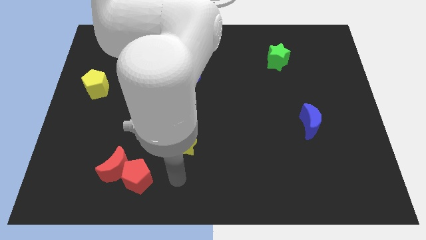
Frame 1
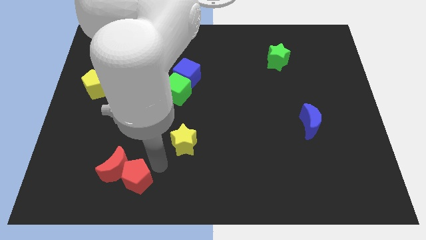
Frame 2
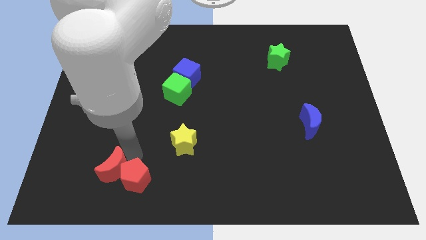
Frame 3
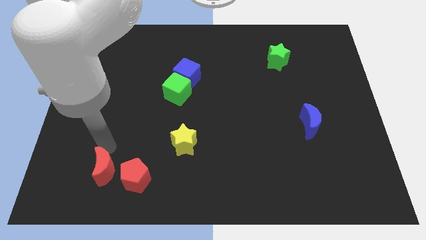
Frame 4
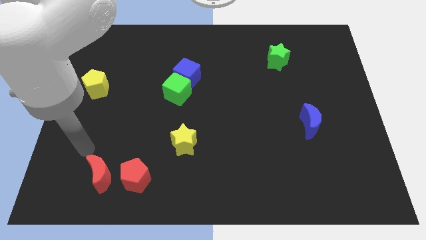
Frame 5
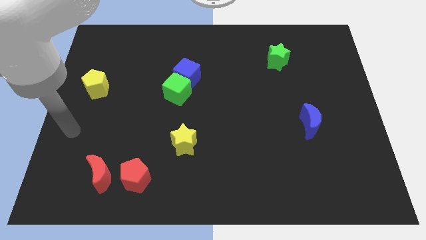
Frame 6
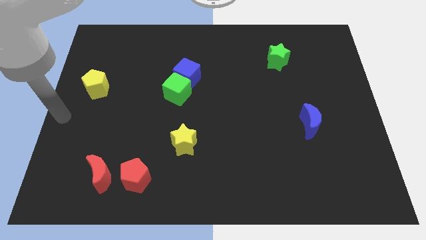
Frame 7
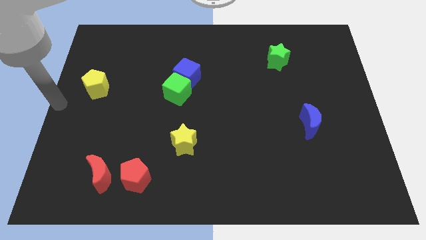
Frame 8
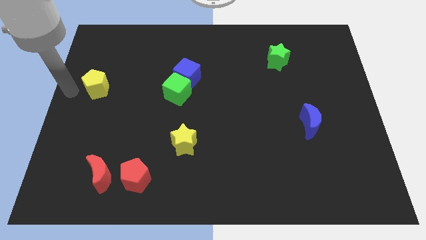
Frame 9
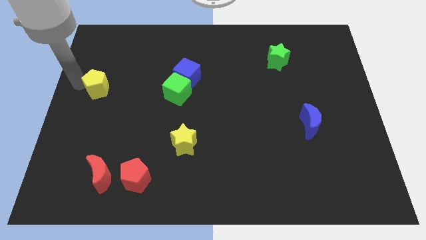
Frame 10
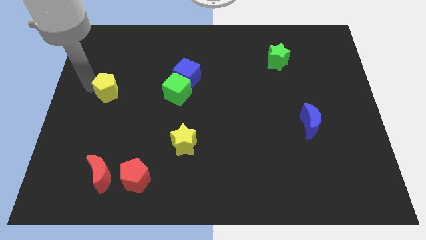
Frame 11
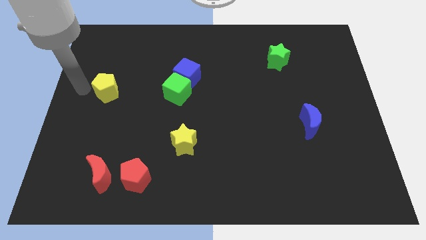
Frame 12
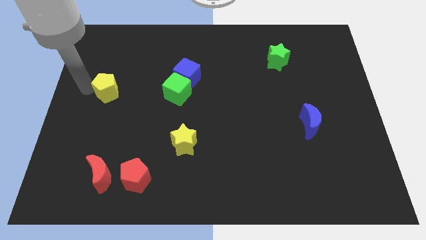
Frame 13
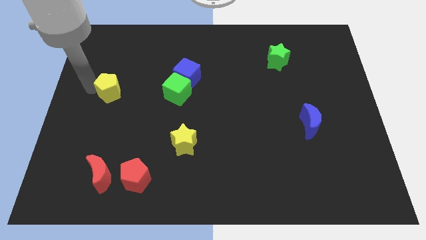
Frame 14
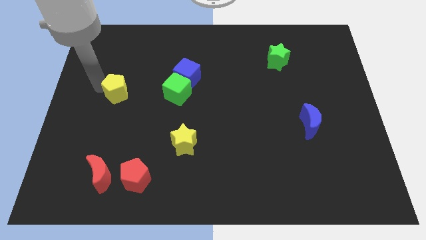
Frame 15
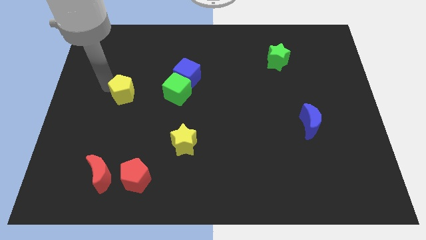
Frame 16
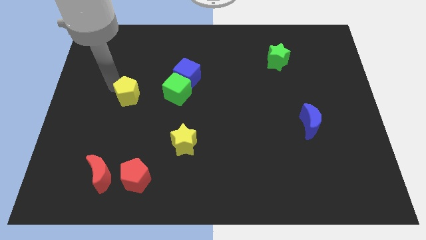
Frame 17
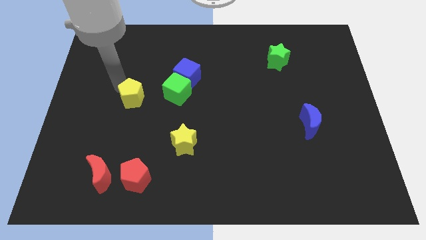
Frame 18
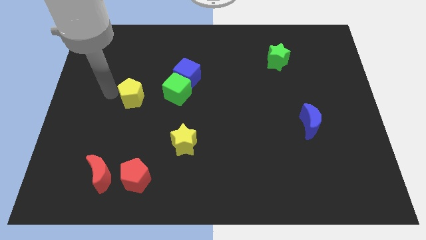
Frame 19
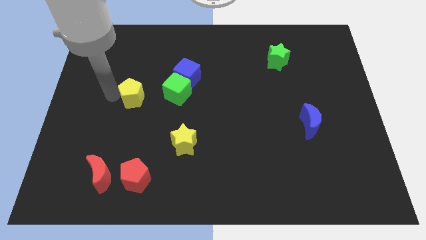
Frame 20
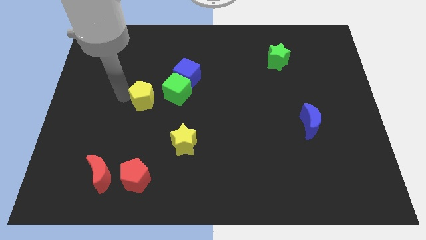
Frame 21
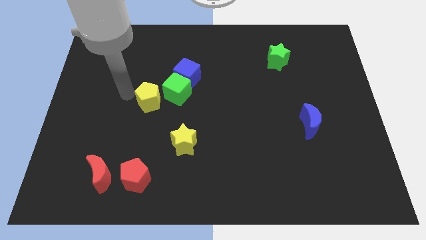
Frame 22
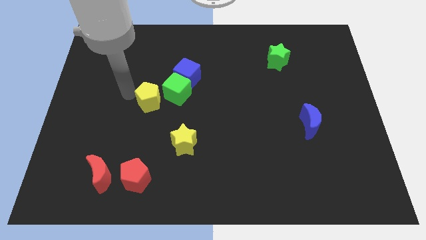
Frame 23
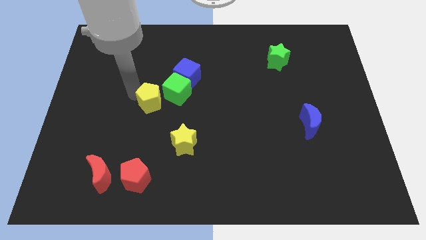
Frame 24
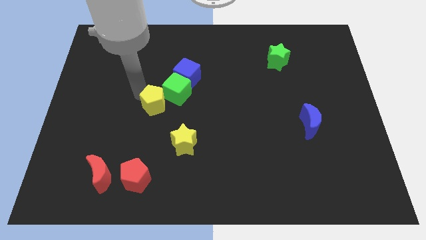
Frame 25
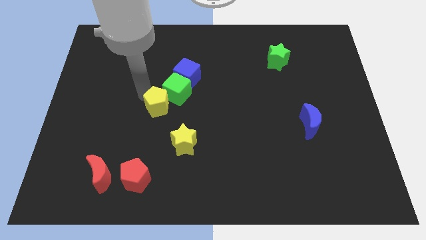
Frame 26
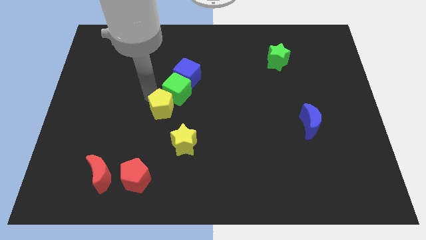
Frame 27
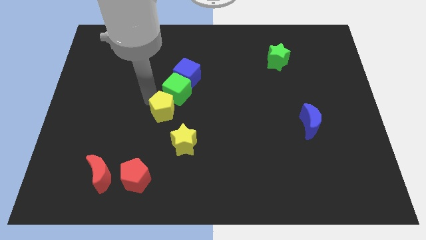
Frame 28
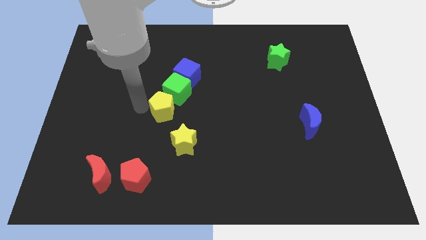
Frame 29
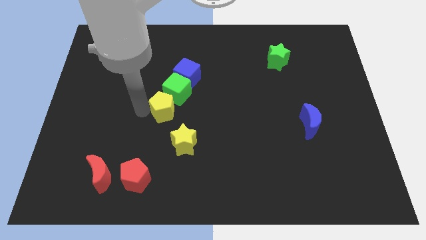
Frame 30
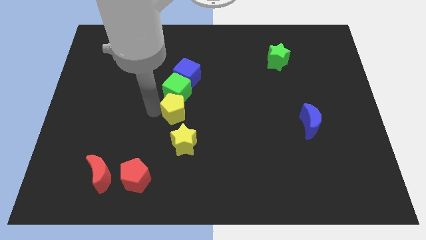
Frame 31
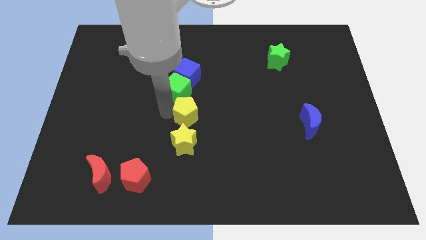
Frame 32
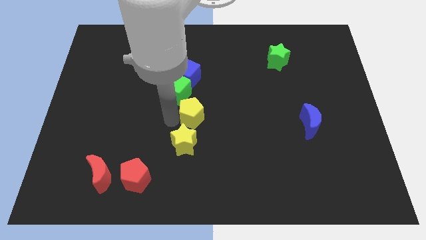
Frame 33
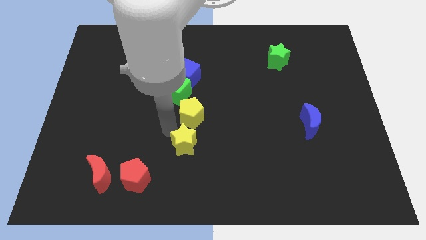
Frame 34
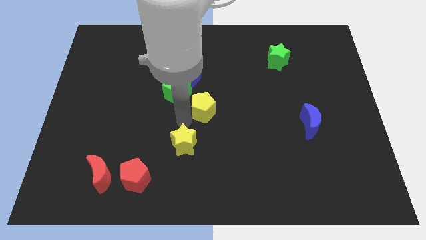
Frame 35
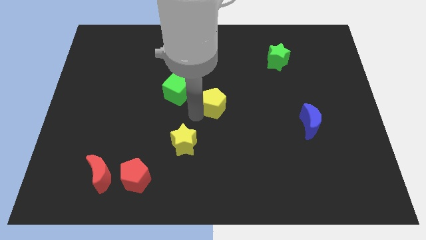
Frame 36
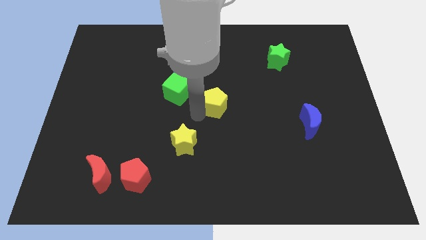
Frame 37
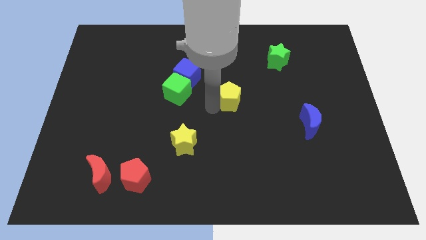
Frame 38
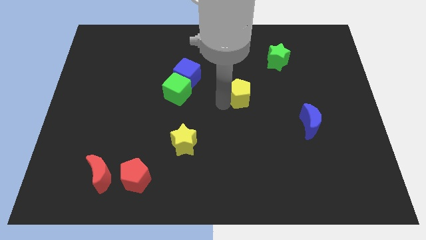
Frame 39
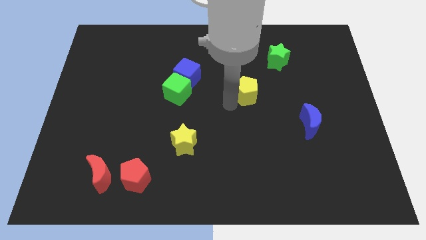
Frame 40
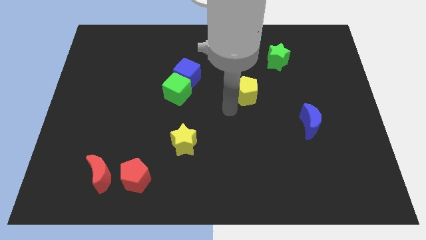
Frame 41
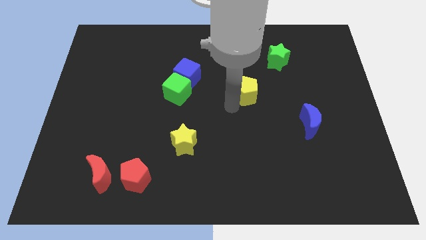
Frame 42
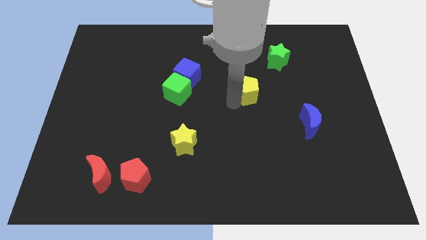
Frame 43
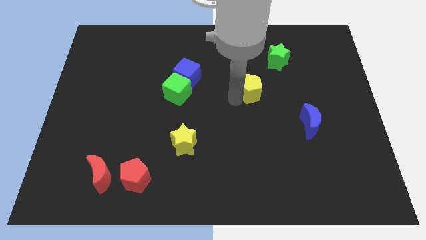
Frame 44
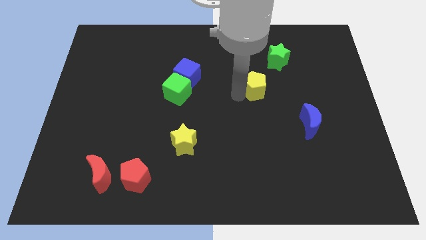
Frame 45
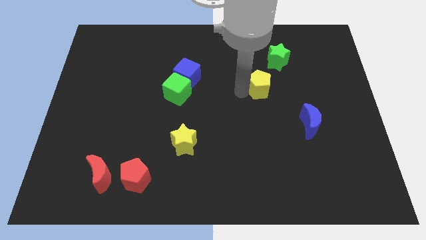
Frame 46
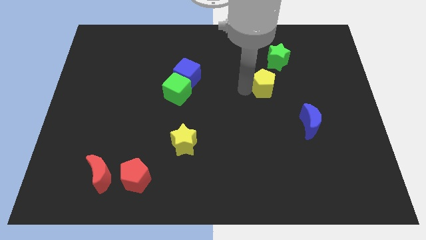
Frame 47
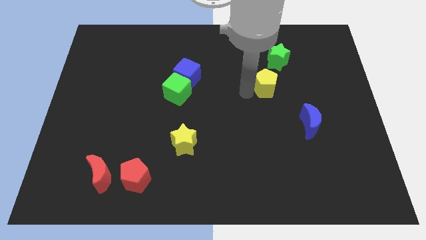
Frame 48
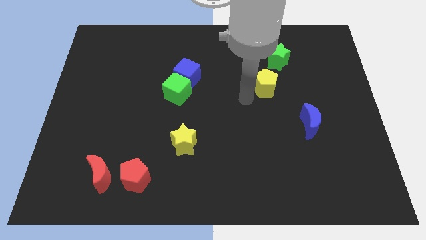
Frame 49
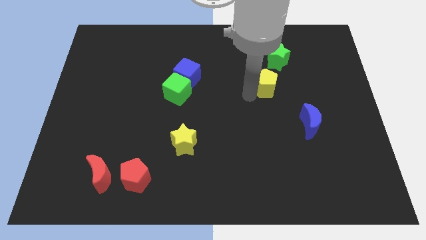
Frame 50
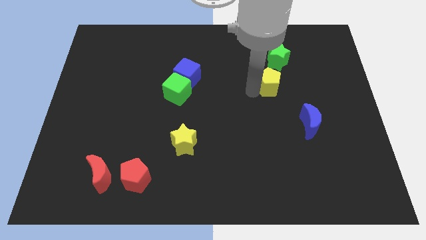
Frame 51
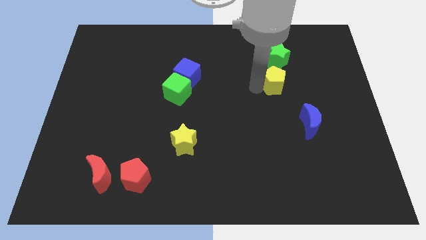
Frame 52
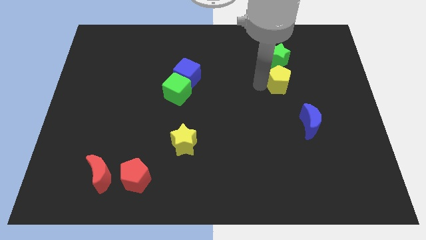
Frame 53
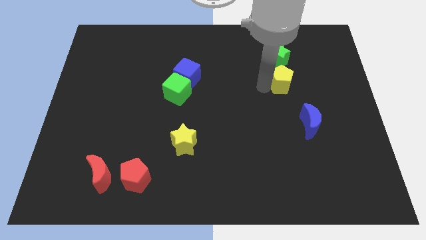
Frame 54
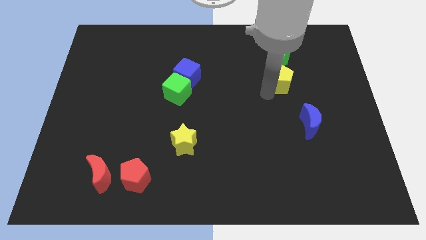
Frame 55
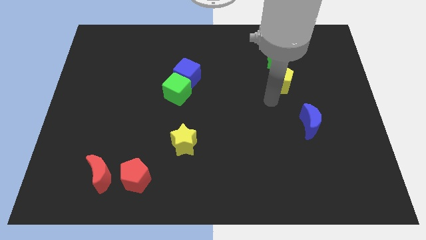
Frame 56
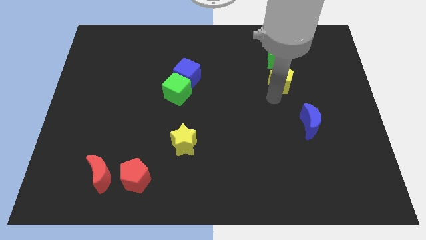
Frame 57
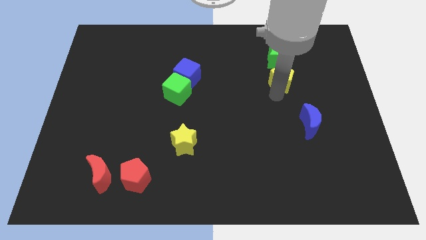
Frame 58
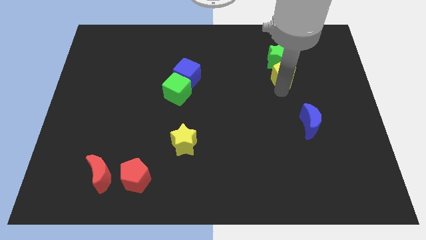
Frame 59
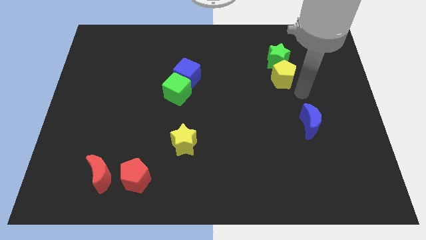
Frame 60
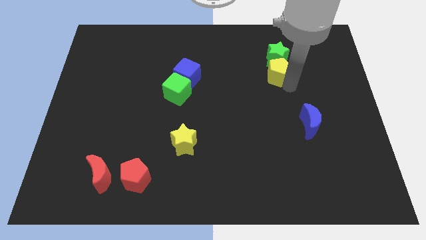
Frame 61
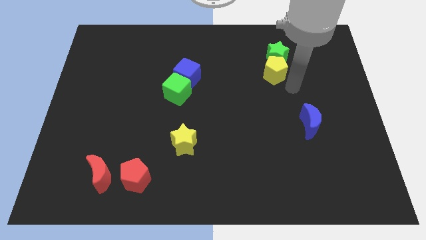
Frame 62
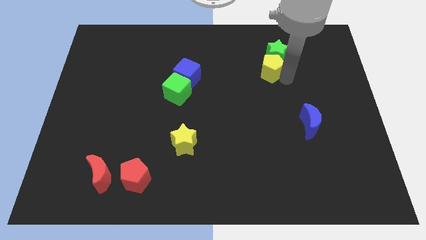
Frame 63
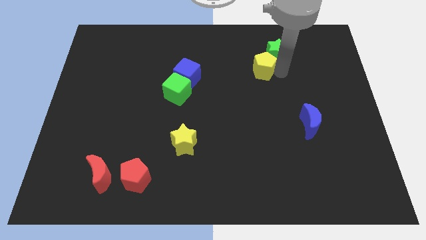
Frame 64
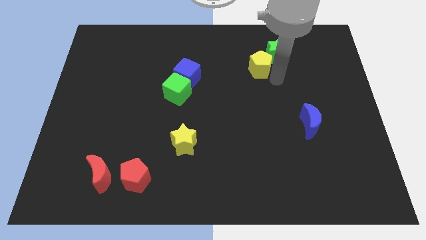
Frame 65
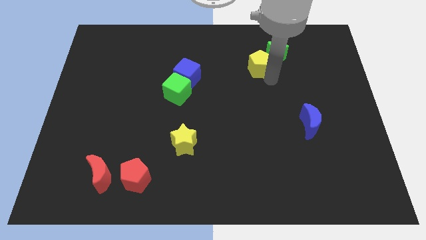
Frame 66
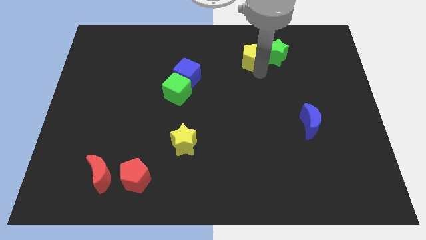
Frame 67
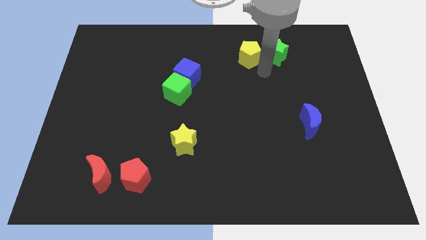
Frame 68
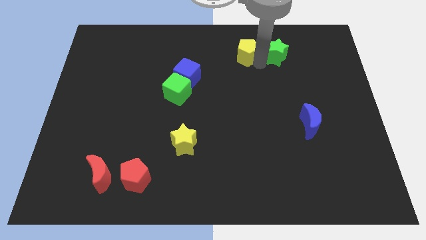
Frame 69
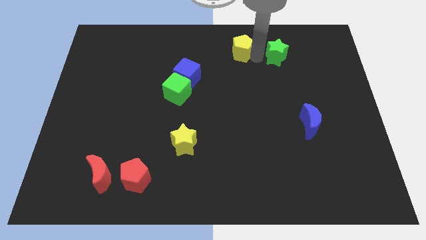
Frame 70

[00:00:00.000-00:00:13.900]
push the yellow pentagon to the top

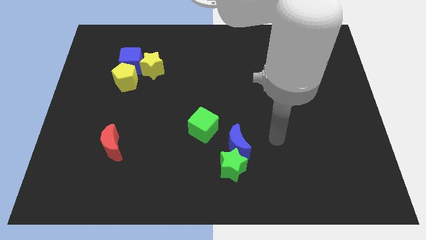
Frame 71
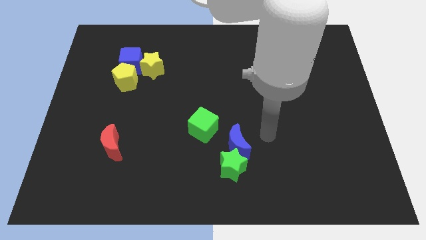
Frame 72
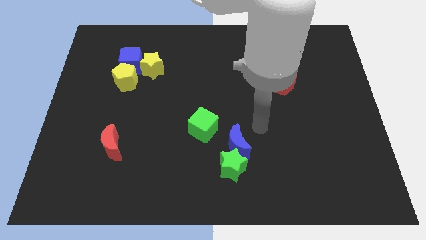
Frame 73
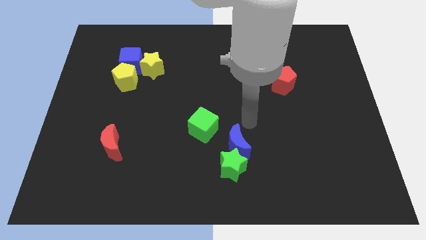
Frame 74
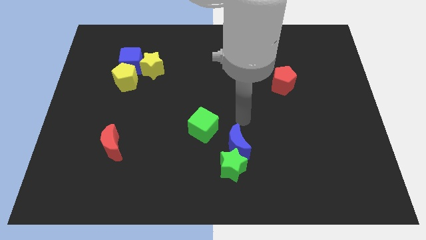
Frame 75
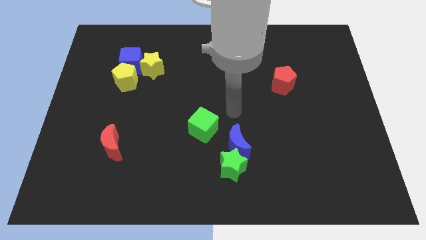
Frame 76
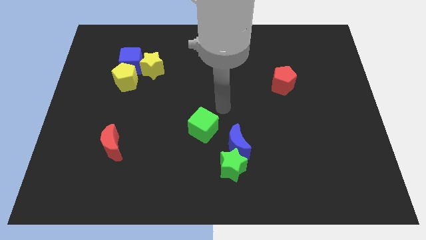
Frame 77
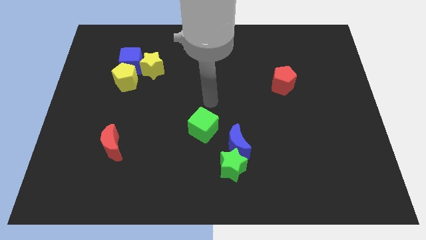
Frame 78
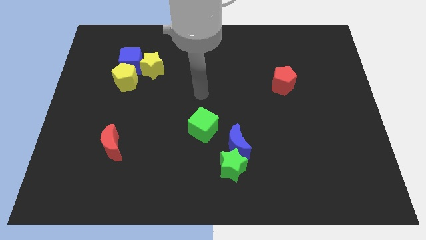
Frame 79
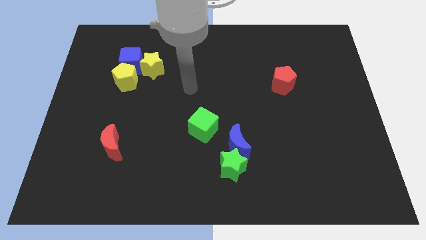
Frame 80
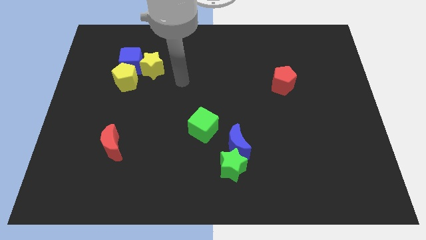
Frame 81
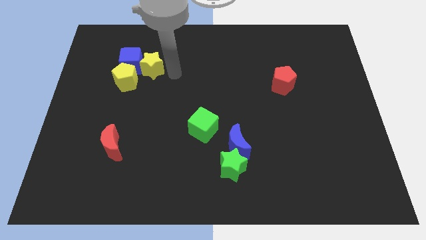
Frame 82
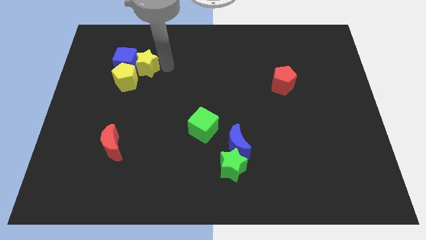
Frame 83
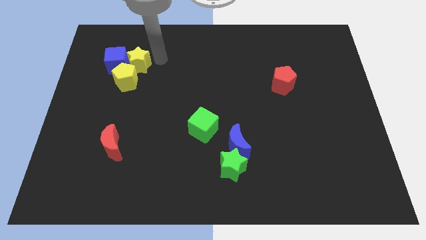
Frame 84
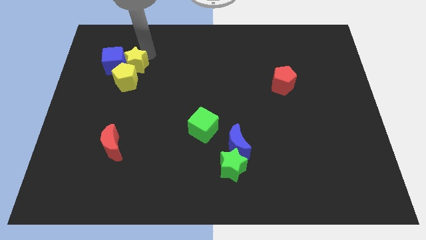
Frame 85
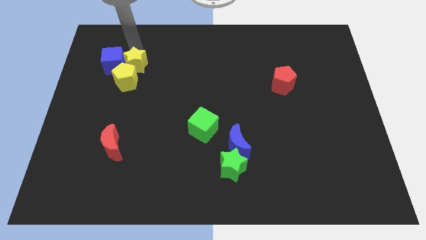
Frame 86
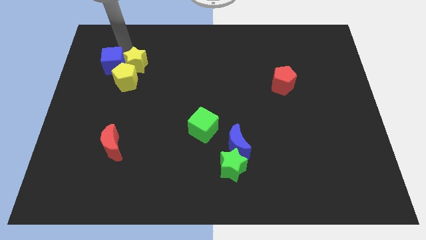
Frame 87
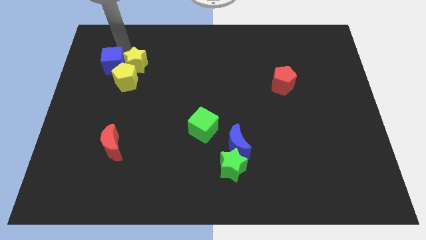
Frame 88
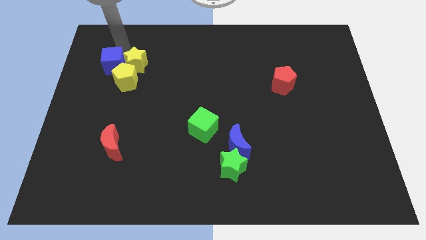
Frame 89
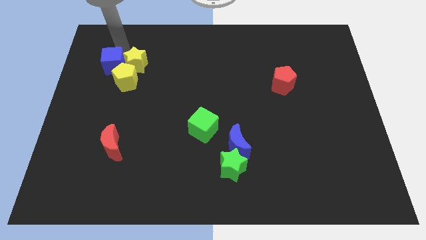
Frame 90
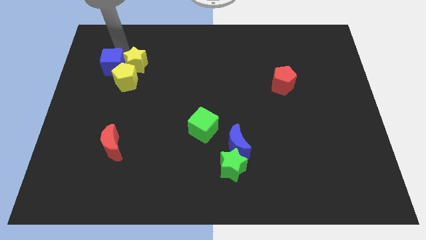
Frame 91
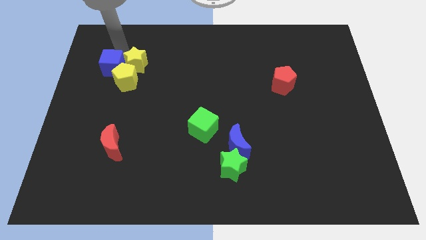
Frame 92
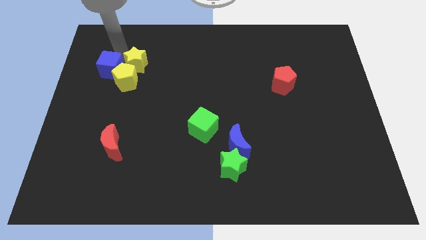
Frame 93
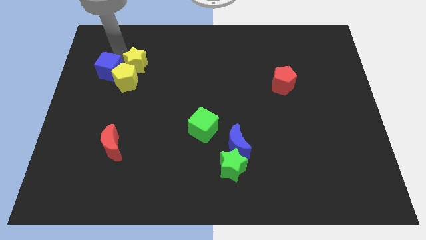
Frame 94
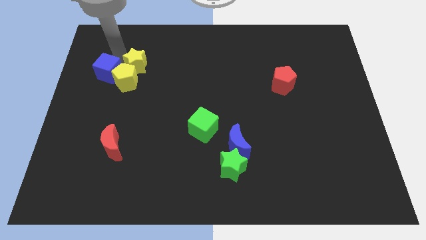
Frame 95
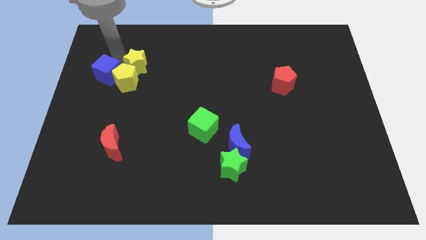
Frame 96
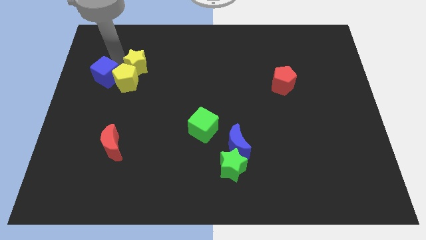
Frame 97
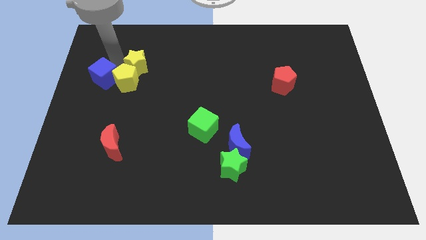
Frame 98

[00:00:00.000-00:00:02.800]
slide the blue cube to the center left
